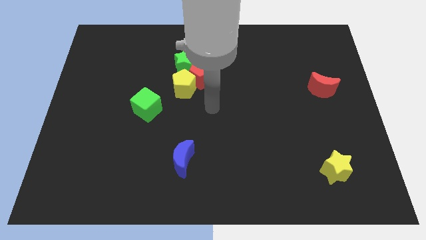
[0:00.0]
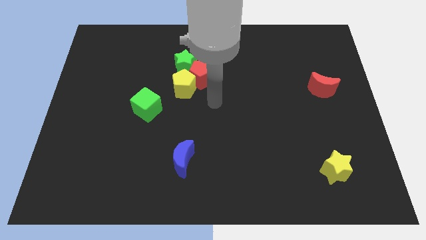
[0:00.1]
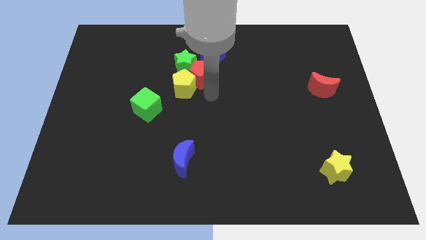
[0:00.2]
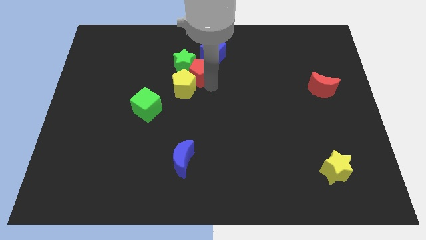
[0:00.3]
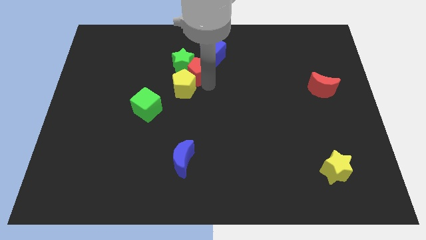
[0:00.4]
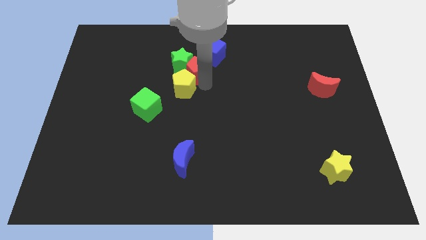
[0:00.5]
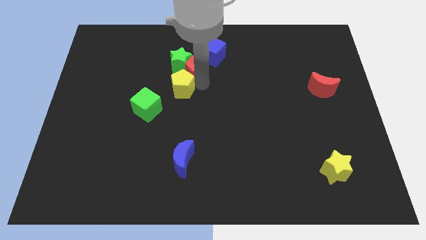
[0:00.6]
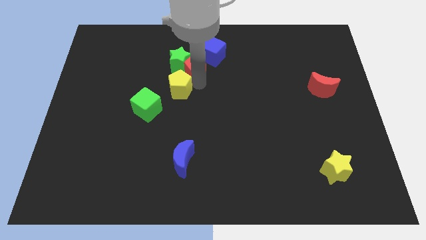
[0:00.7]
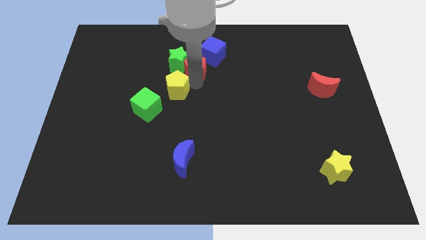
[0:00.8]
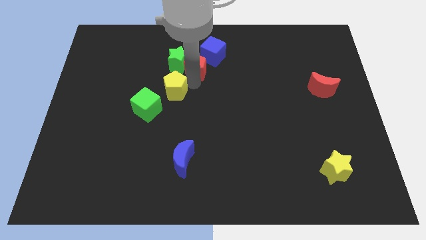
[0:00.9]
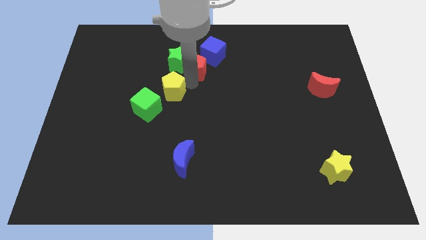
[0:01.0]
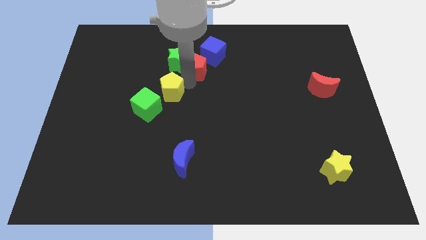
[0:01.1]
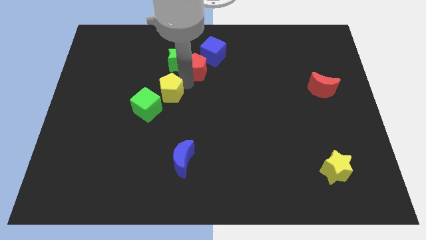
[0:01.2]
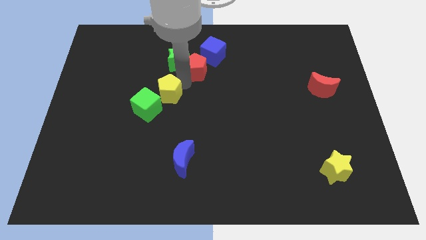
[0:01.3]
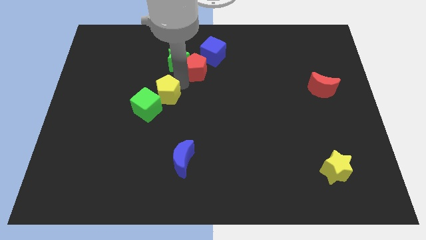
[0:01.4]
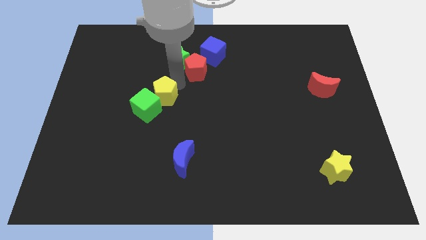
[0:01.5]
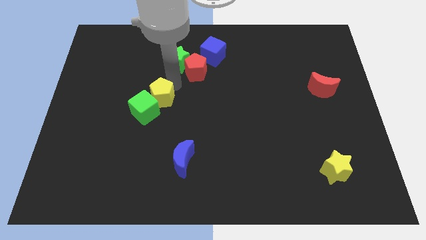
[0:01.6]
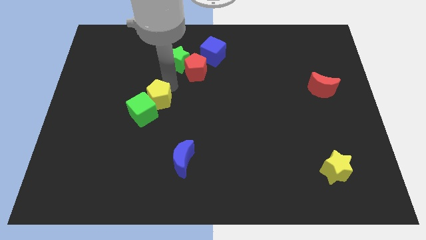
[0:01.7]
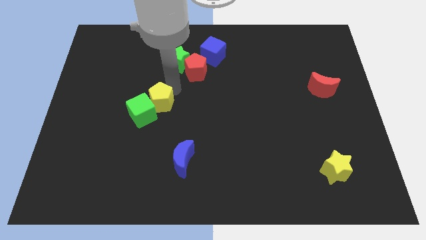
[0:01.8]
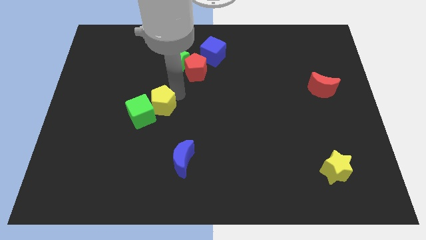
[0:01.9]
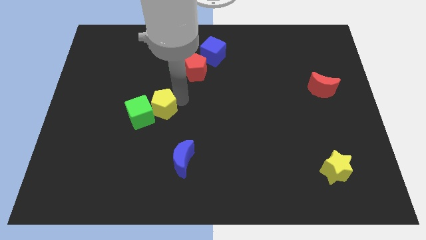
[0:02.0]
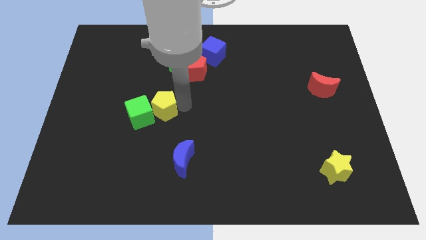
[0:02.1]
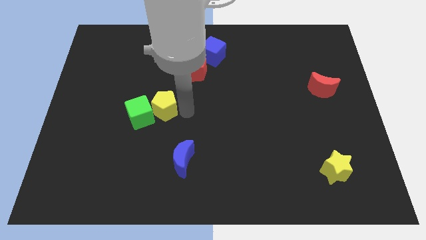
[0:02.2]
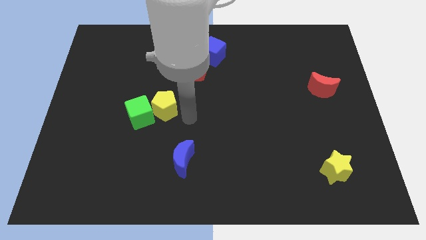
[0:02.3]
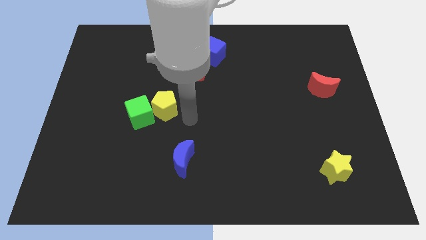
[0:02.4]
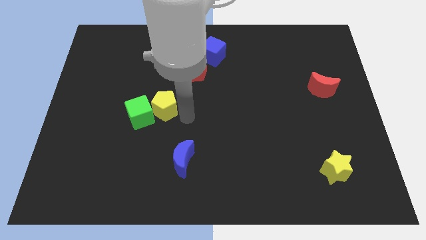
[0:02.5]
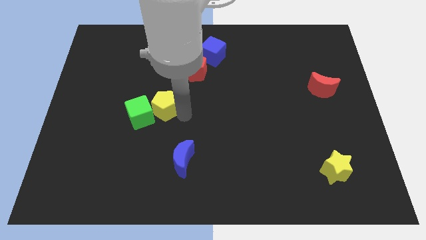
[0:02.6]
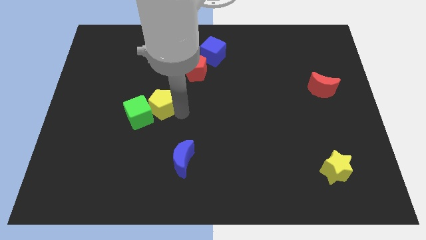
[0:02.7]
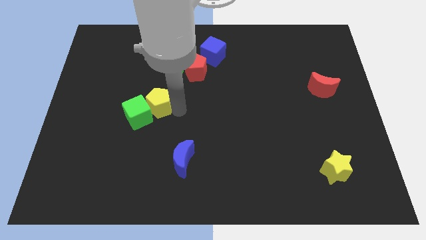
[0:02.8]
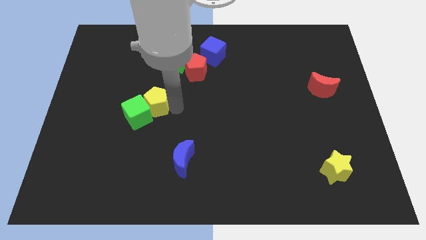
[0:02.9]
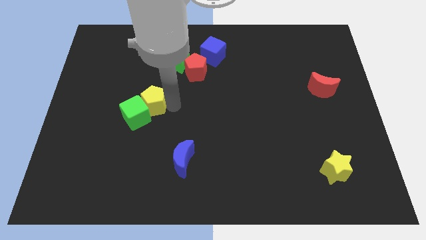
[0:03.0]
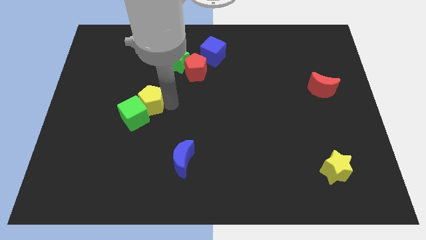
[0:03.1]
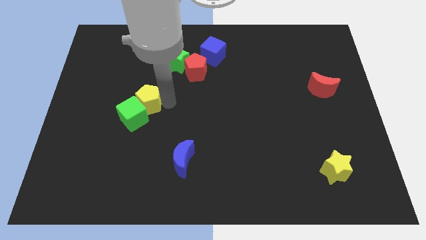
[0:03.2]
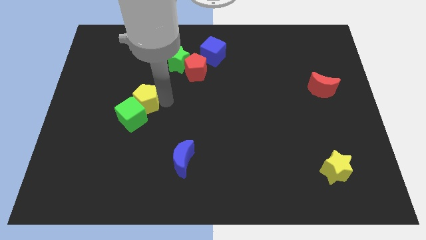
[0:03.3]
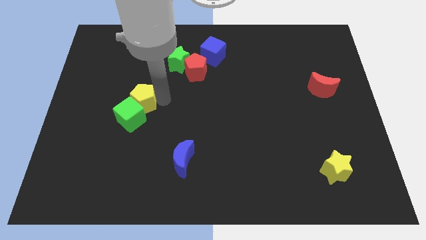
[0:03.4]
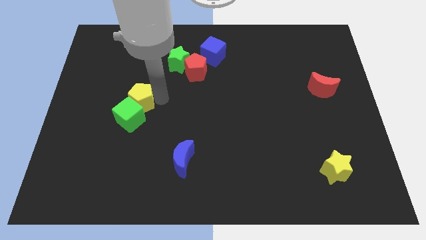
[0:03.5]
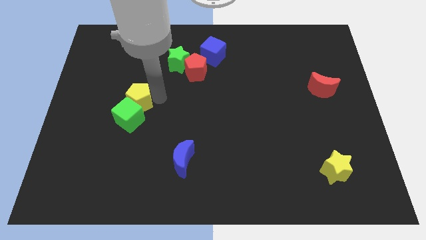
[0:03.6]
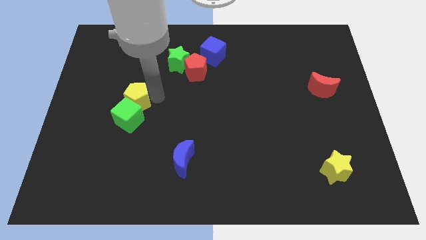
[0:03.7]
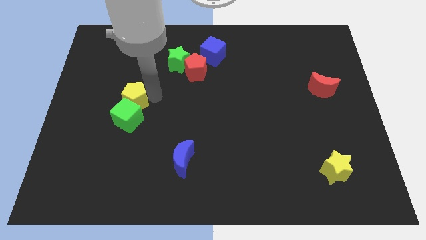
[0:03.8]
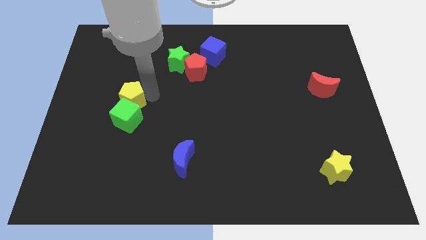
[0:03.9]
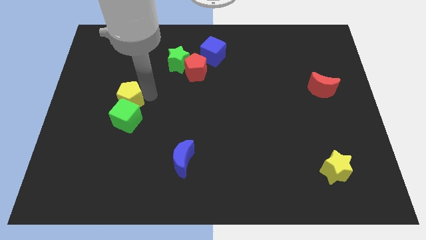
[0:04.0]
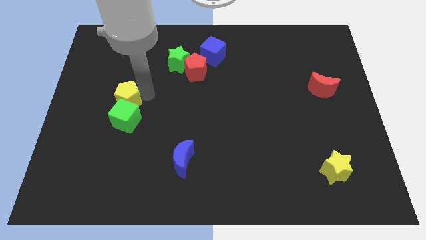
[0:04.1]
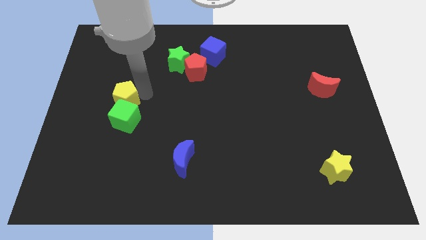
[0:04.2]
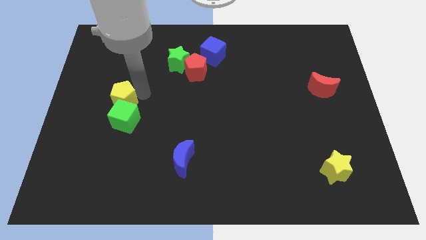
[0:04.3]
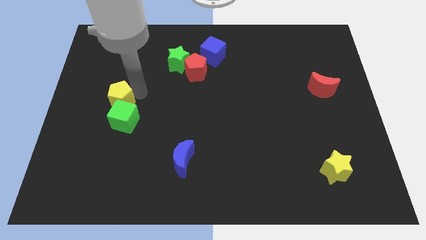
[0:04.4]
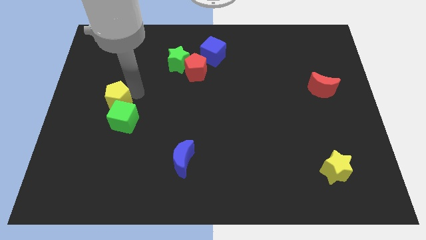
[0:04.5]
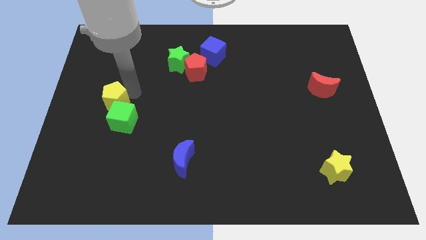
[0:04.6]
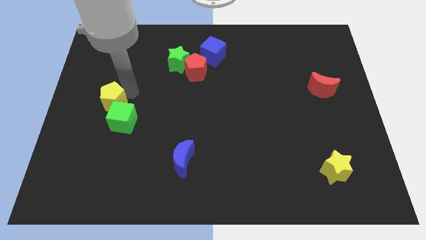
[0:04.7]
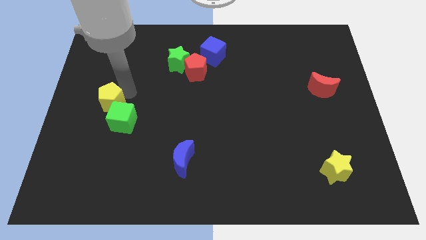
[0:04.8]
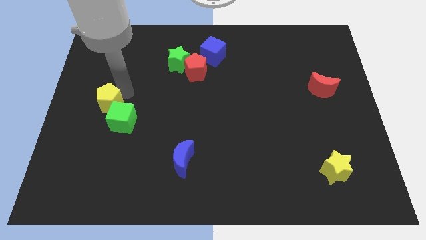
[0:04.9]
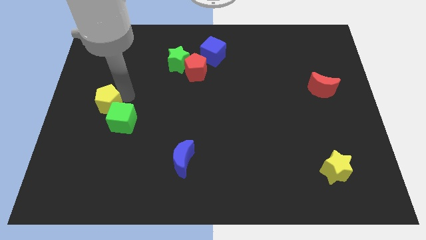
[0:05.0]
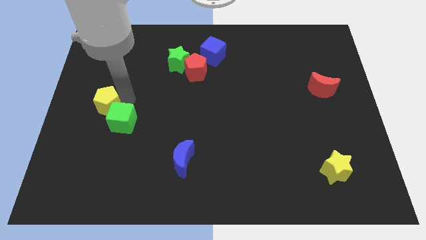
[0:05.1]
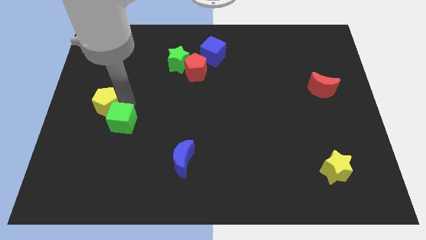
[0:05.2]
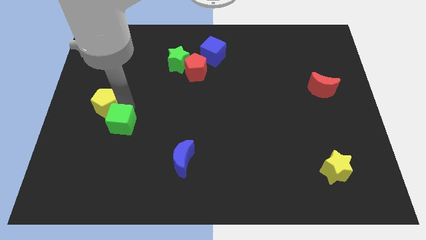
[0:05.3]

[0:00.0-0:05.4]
put the yellow pentagon to the left side of the board

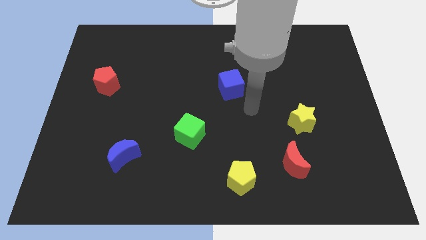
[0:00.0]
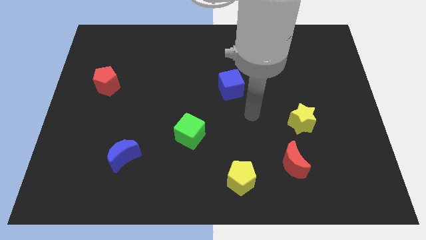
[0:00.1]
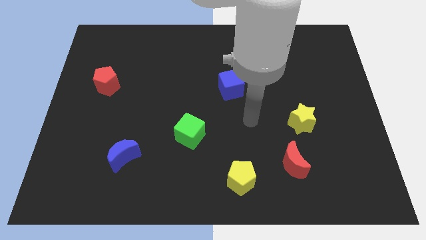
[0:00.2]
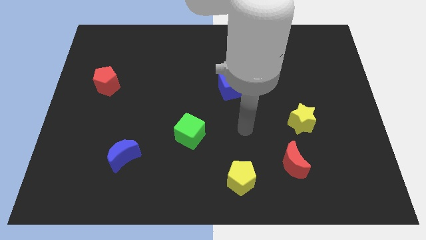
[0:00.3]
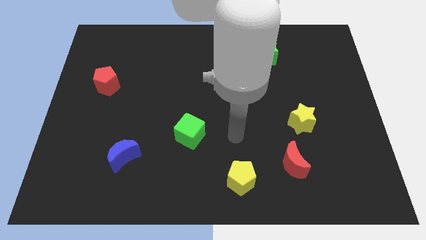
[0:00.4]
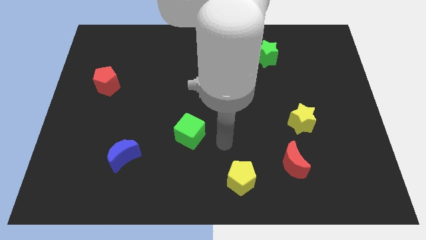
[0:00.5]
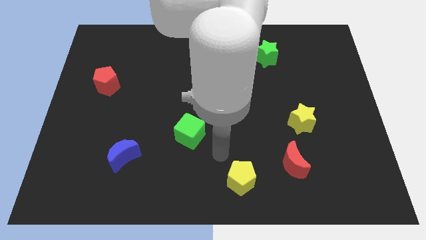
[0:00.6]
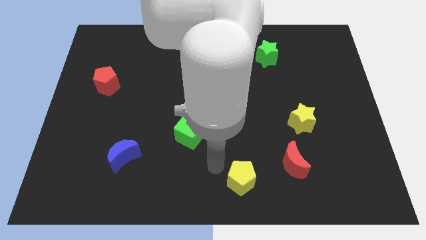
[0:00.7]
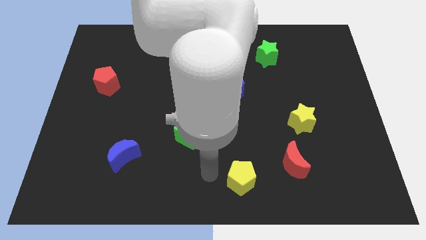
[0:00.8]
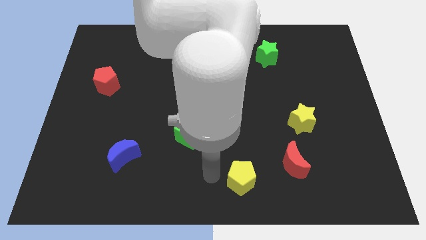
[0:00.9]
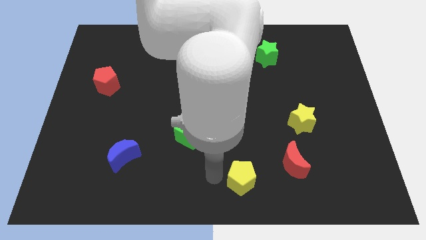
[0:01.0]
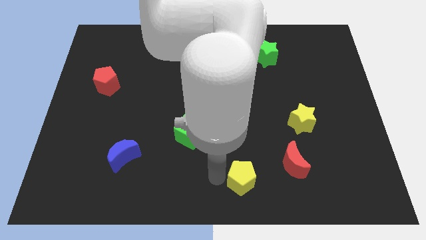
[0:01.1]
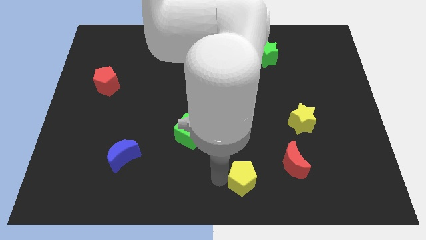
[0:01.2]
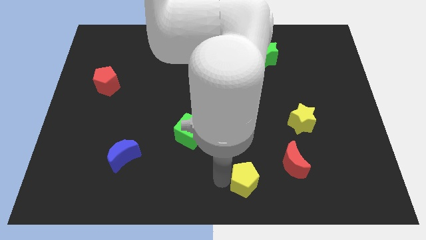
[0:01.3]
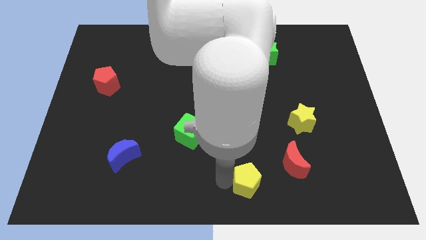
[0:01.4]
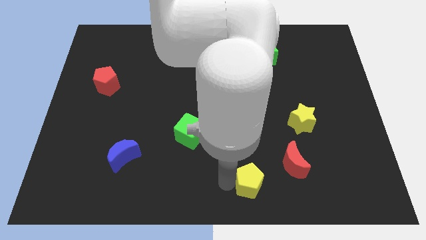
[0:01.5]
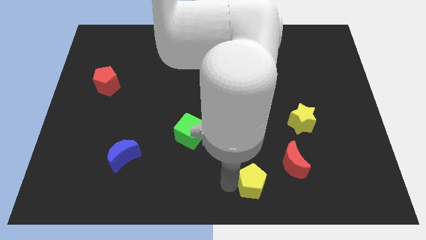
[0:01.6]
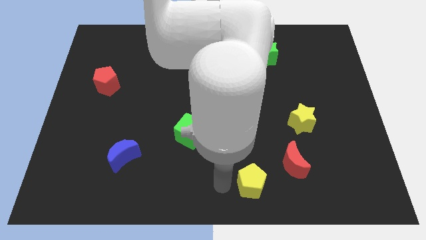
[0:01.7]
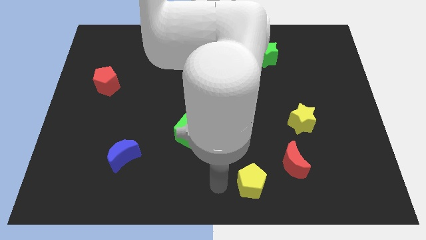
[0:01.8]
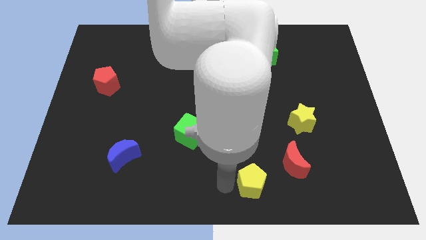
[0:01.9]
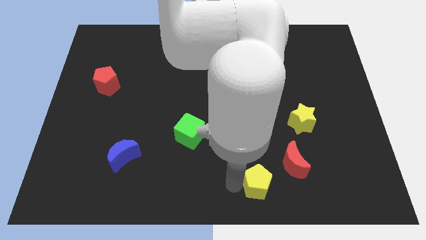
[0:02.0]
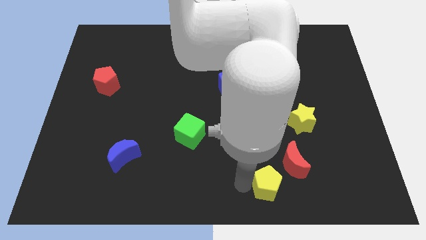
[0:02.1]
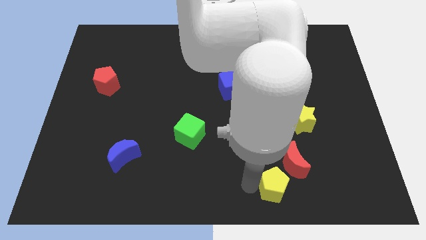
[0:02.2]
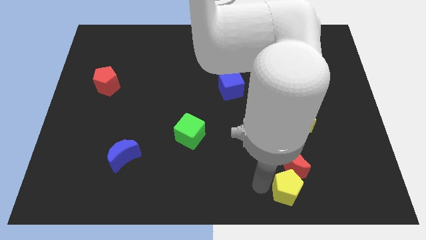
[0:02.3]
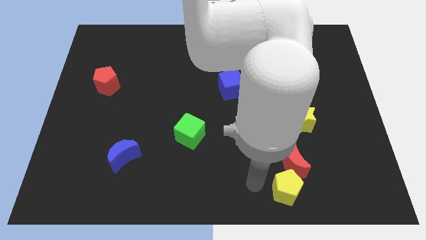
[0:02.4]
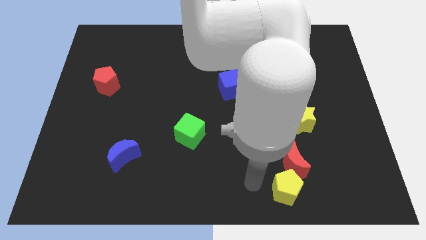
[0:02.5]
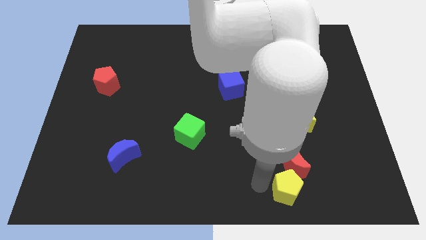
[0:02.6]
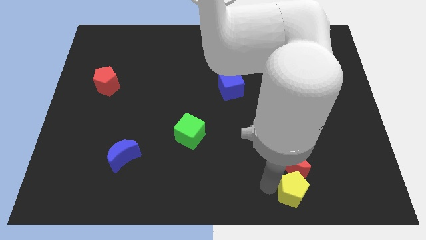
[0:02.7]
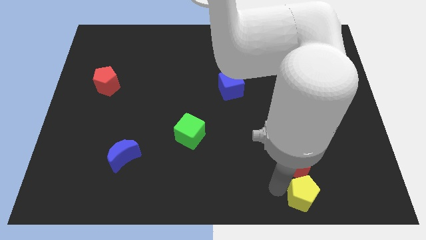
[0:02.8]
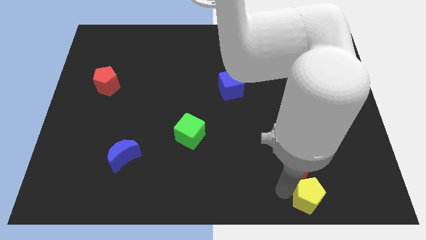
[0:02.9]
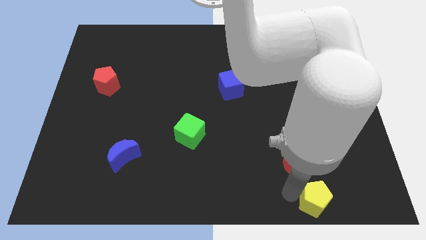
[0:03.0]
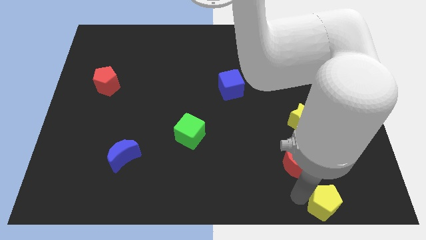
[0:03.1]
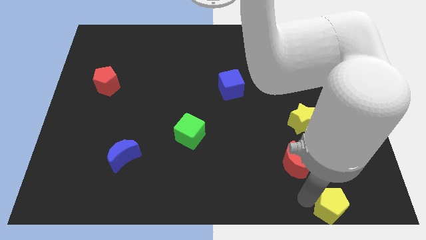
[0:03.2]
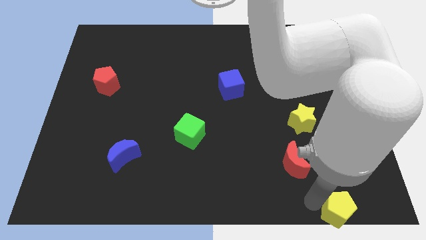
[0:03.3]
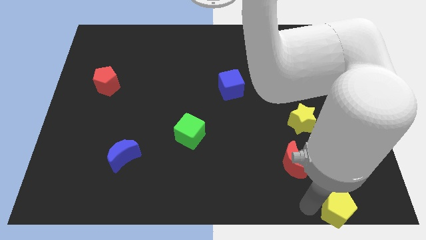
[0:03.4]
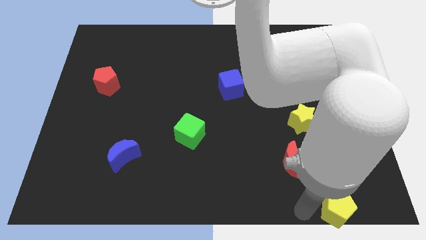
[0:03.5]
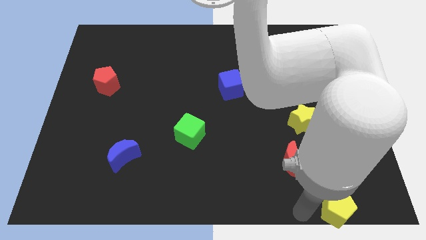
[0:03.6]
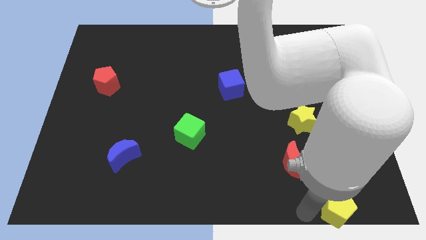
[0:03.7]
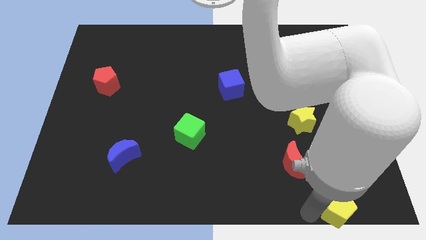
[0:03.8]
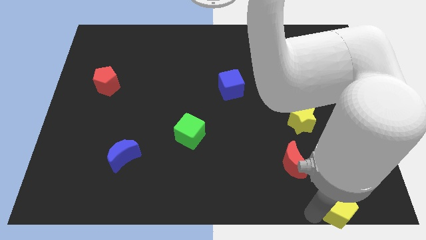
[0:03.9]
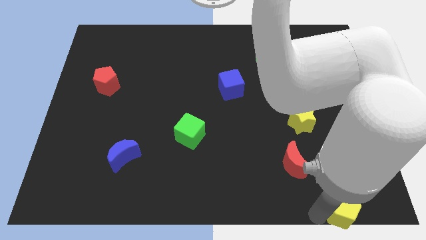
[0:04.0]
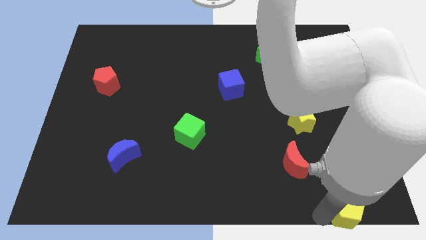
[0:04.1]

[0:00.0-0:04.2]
put the yellow pentagon to the lower right corner
